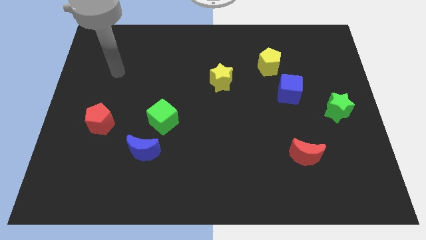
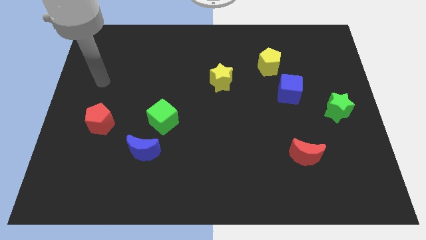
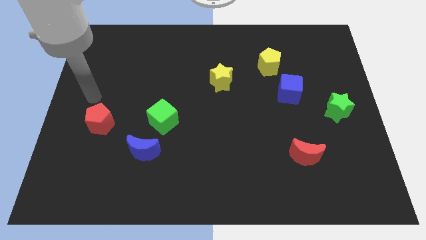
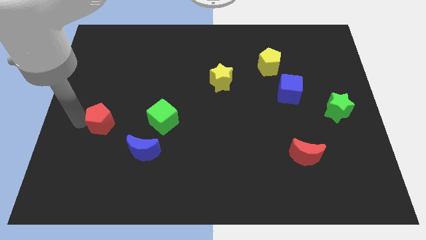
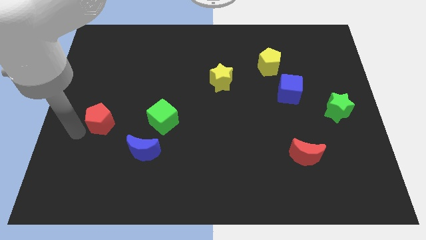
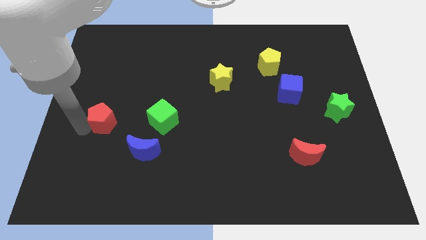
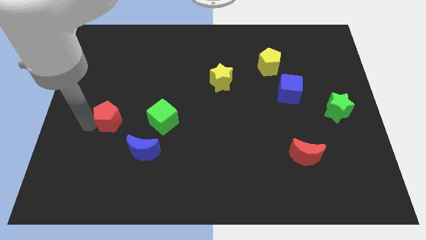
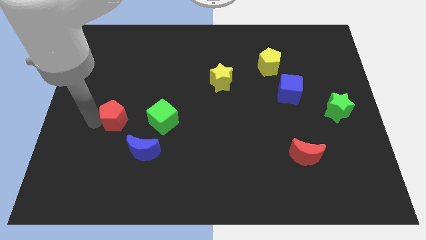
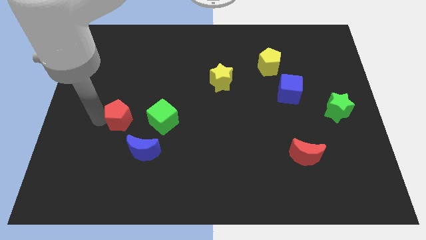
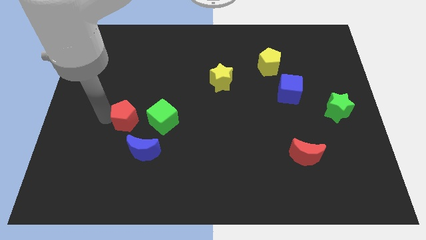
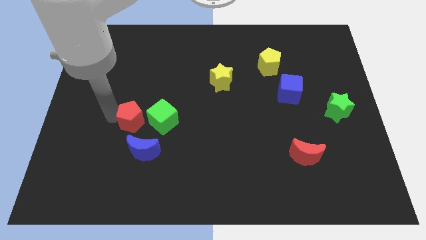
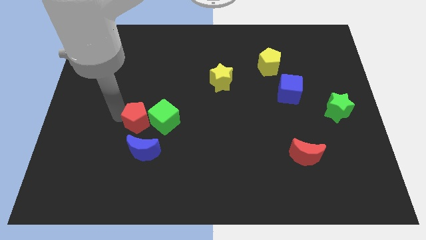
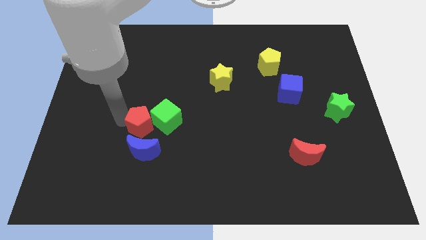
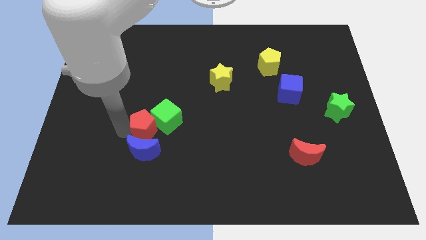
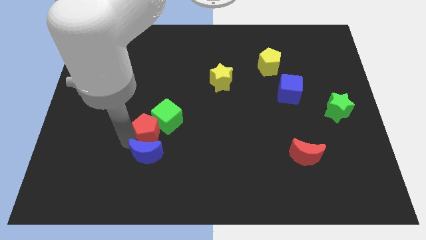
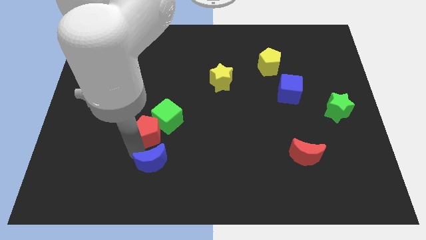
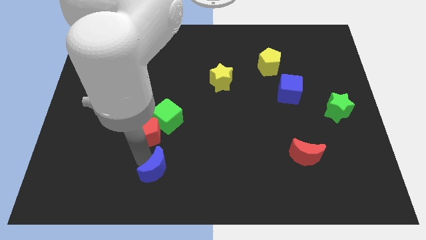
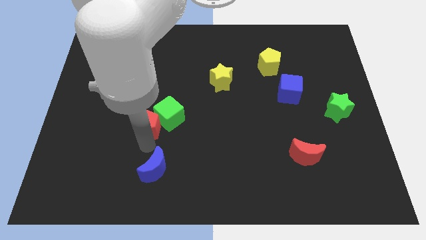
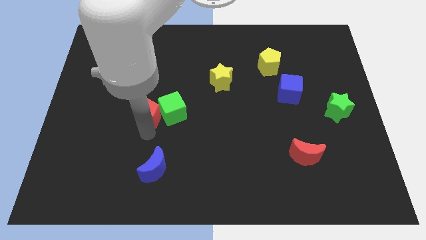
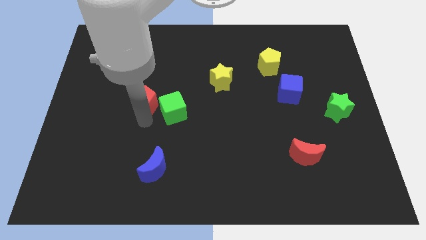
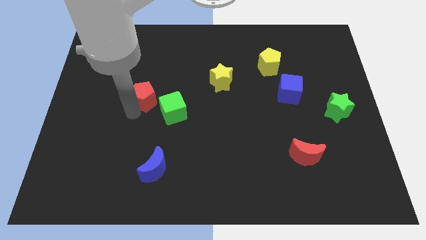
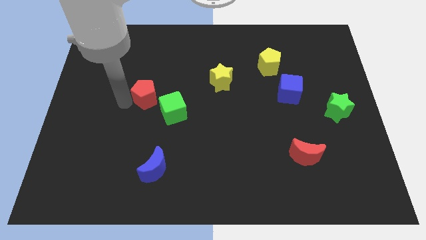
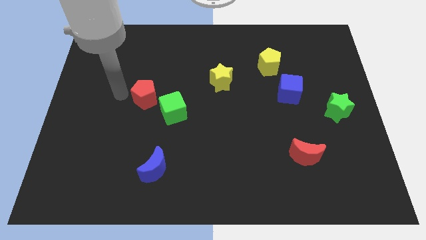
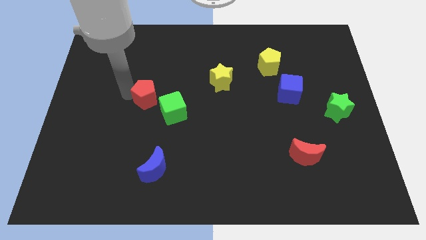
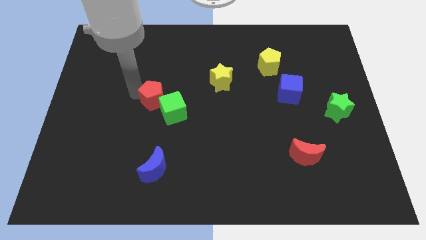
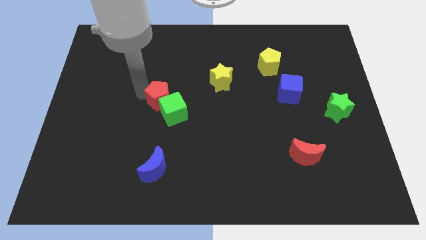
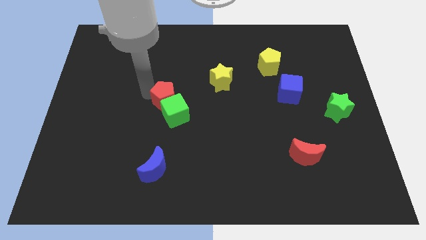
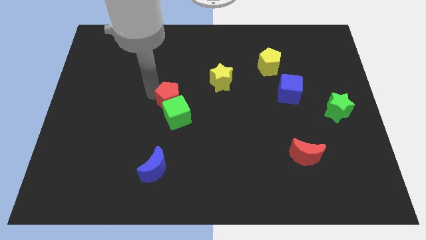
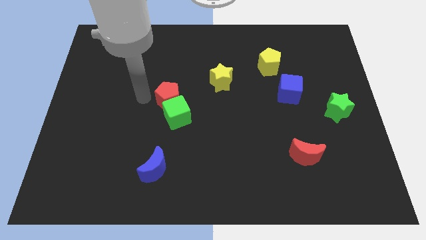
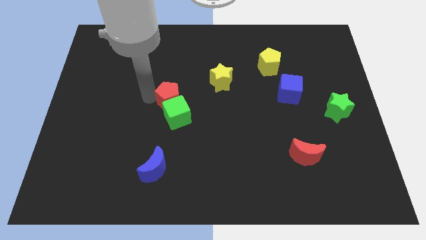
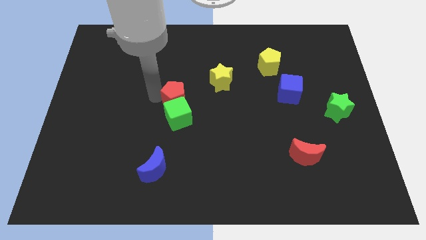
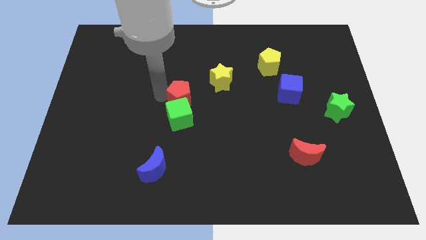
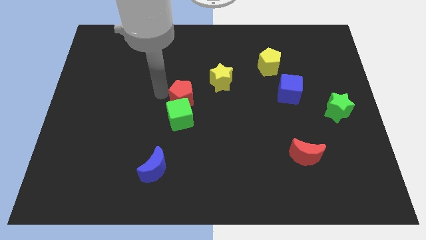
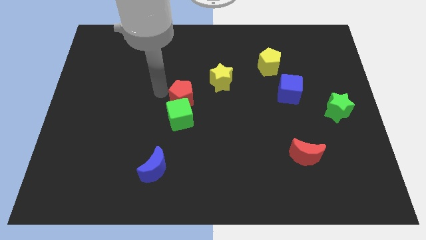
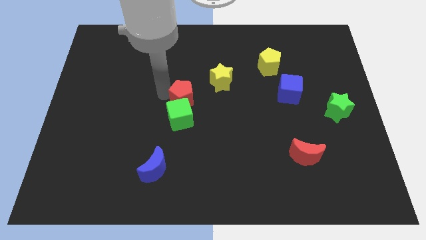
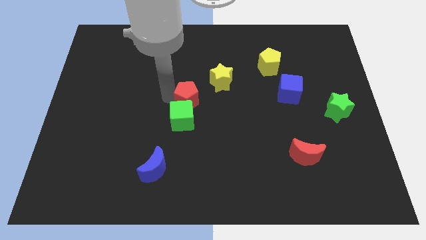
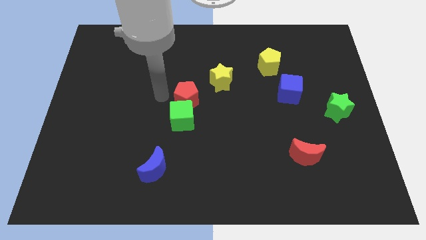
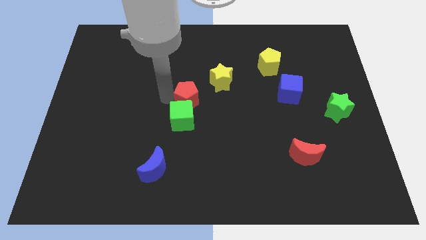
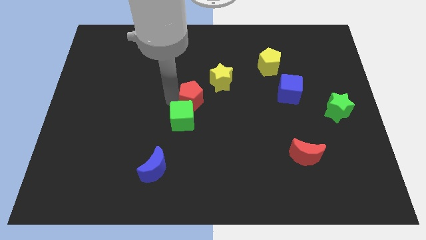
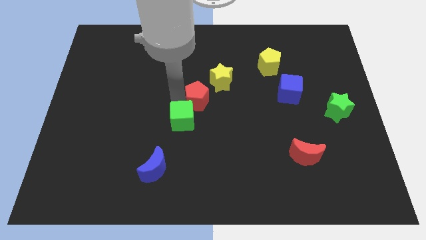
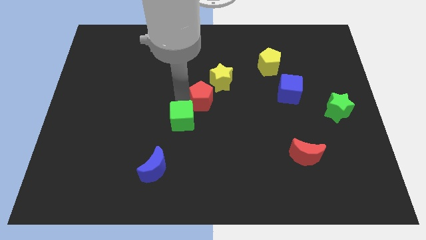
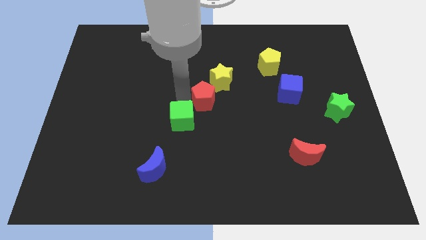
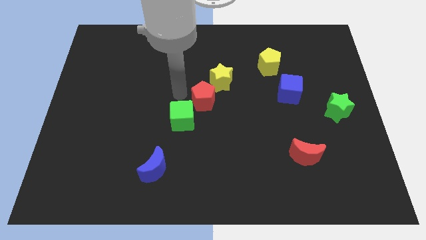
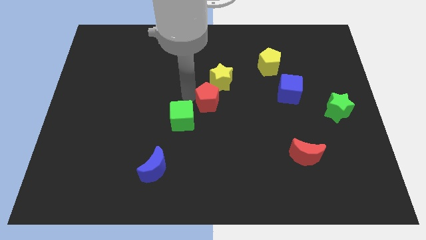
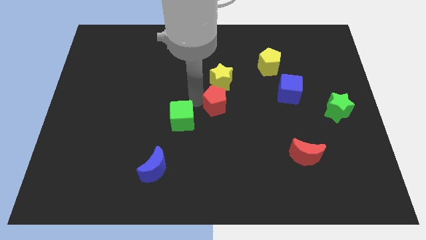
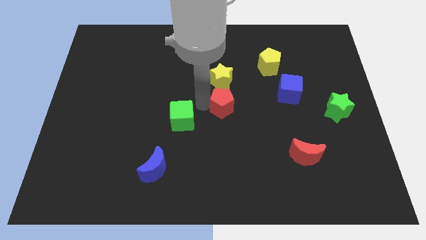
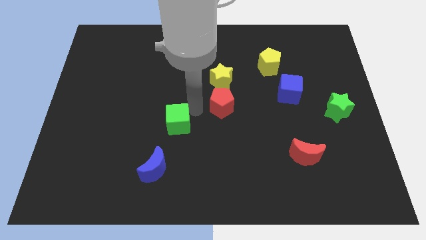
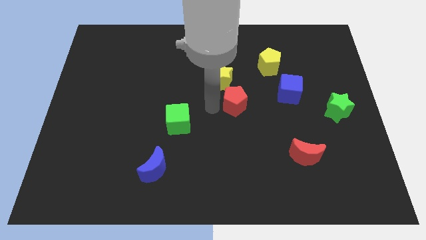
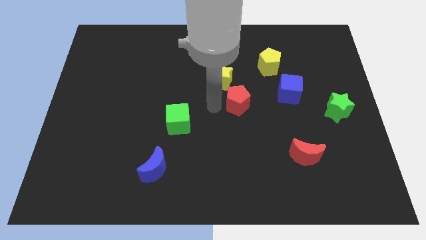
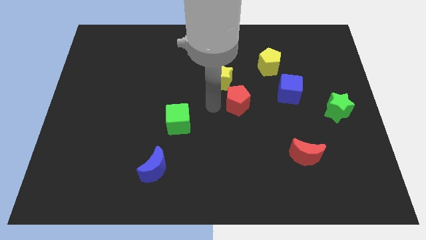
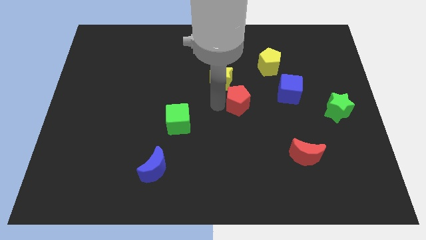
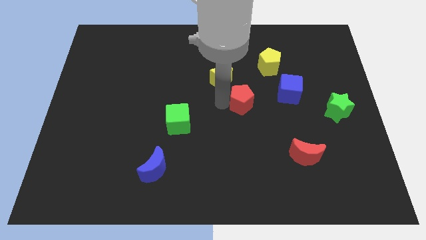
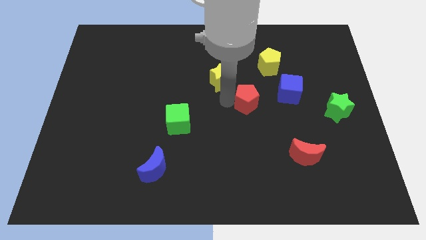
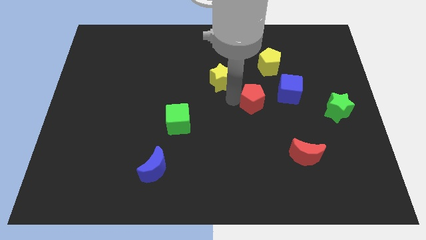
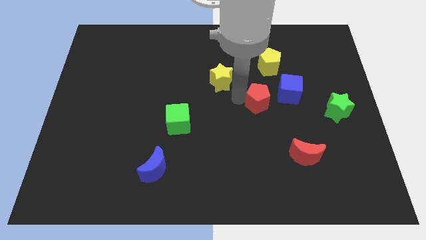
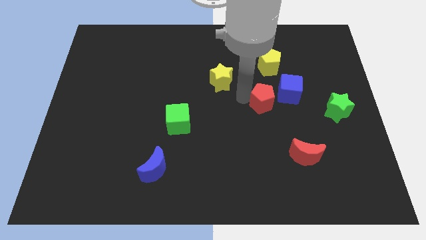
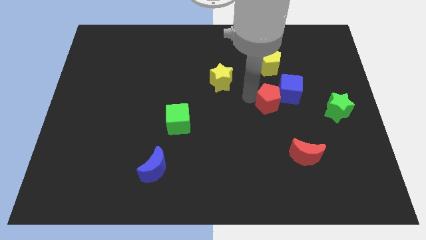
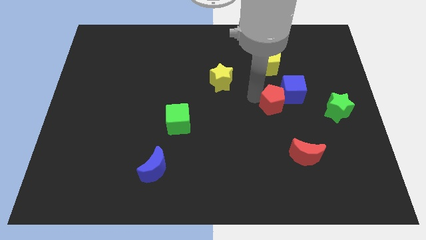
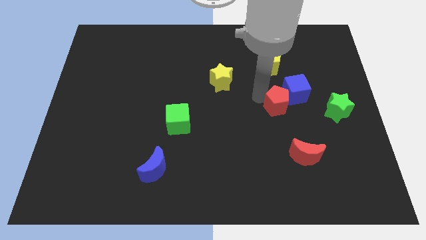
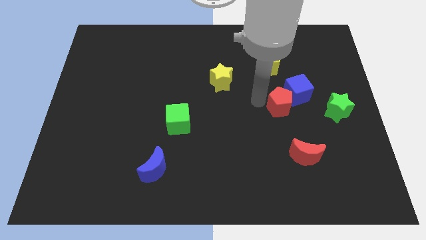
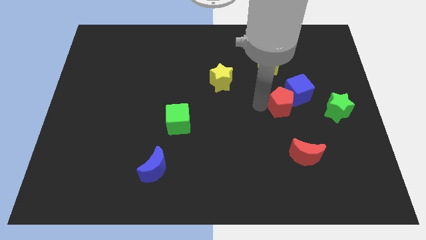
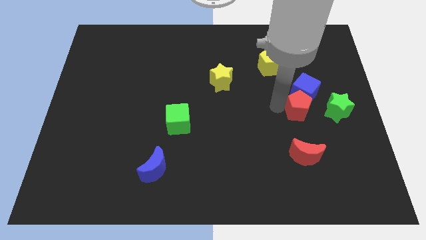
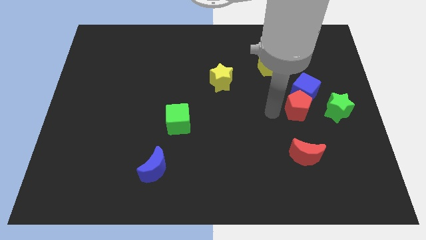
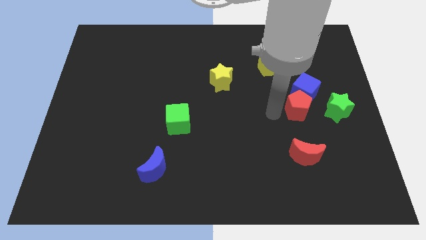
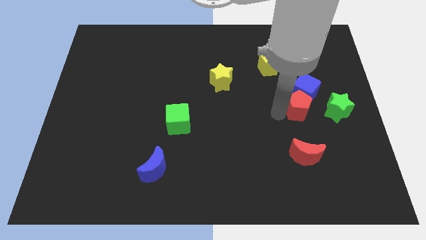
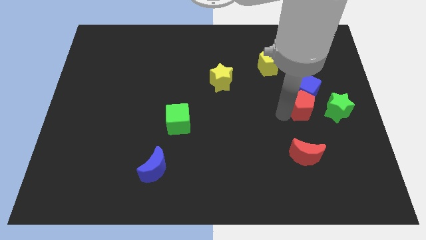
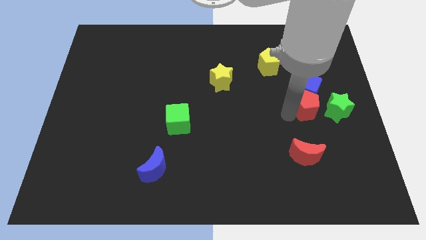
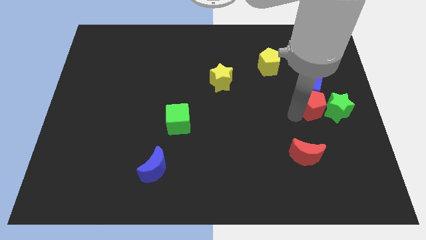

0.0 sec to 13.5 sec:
push the red pentagon next to the green star
